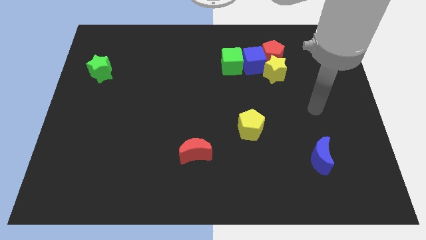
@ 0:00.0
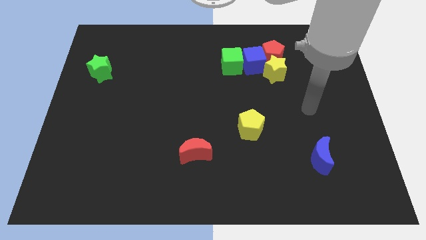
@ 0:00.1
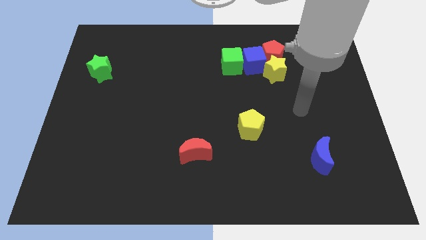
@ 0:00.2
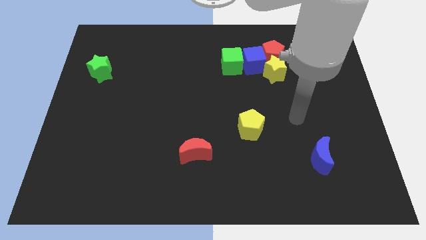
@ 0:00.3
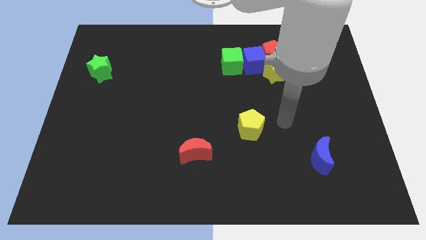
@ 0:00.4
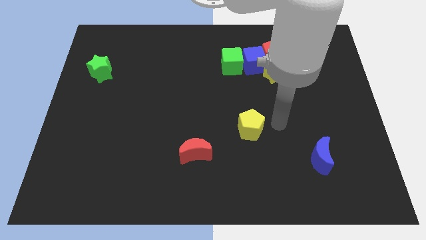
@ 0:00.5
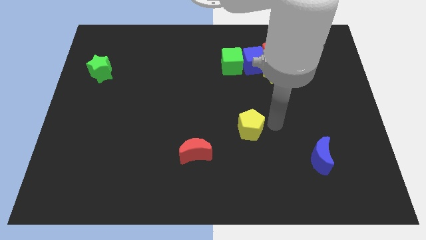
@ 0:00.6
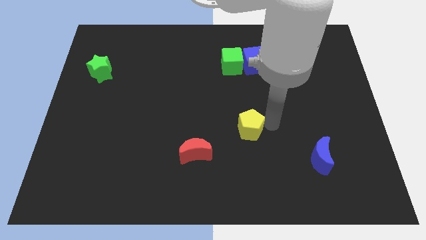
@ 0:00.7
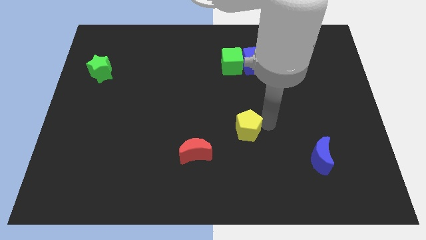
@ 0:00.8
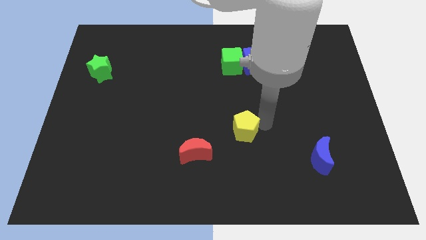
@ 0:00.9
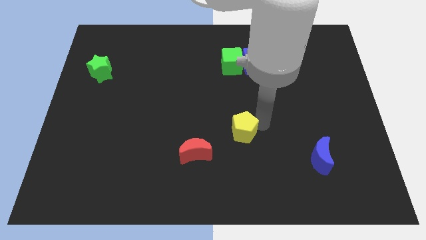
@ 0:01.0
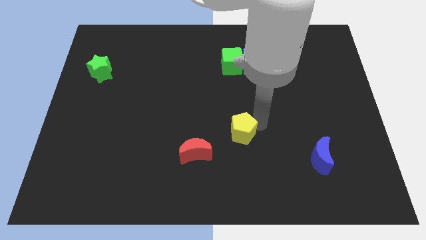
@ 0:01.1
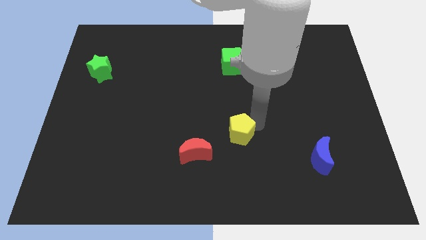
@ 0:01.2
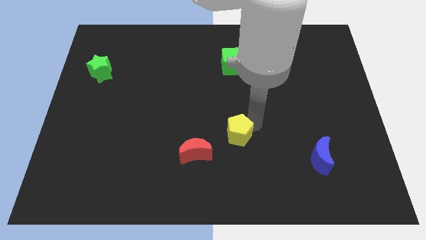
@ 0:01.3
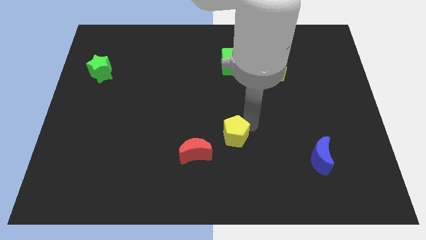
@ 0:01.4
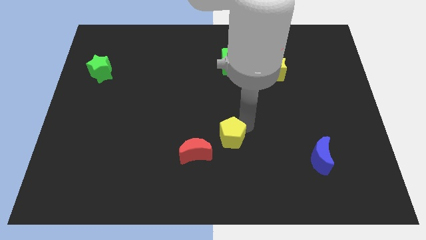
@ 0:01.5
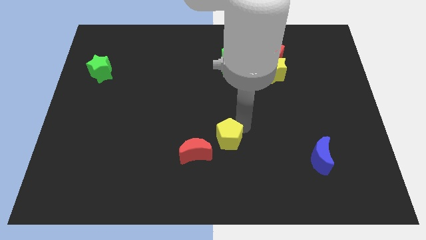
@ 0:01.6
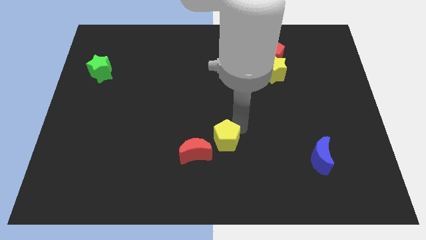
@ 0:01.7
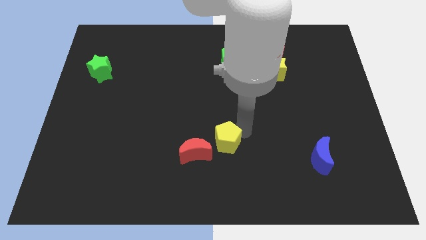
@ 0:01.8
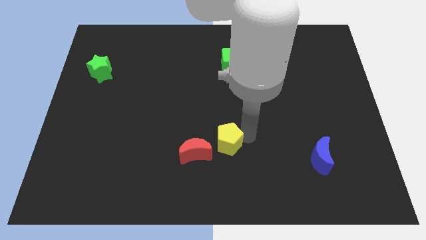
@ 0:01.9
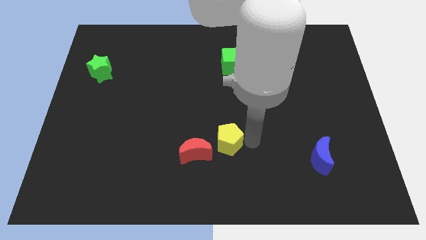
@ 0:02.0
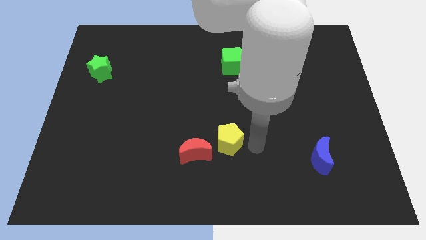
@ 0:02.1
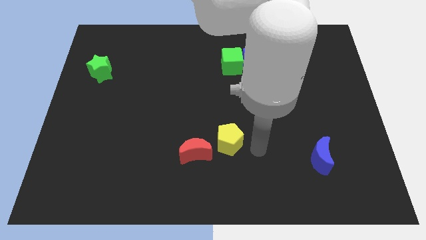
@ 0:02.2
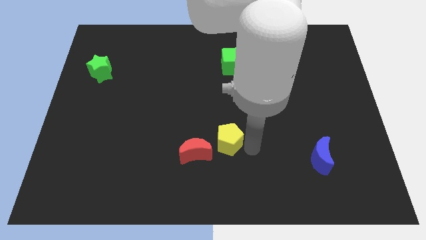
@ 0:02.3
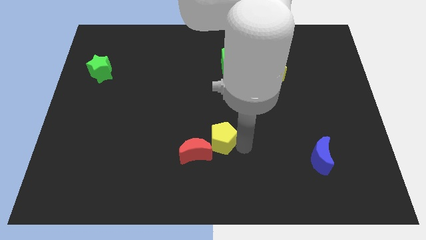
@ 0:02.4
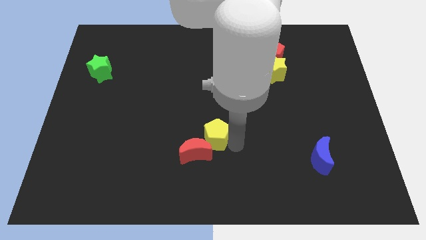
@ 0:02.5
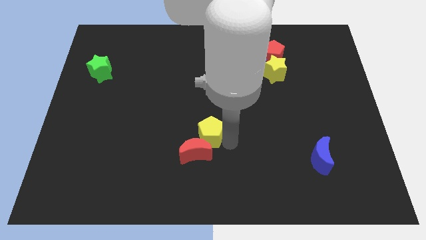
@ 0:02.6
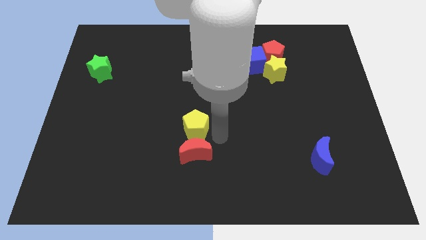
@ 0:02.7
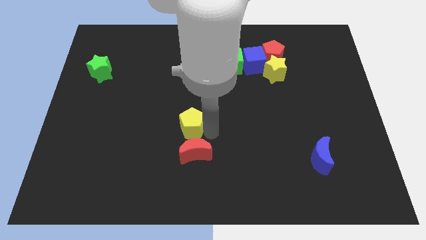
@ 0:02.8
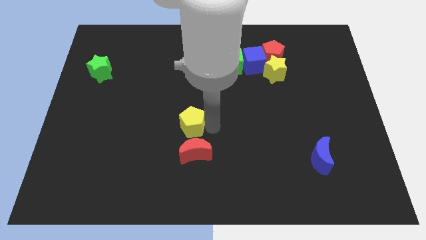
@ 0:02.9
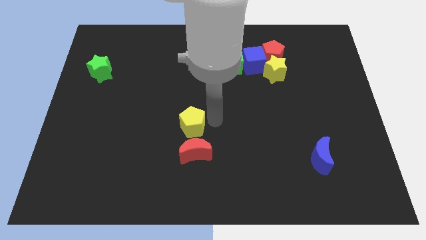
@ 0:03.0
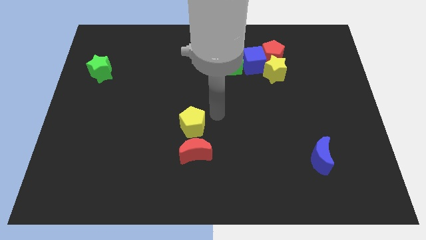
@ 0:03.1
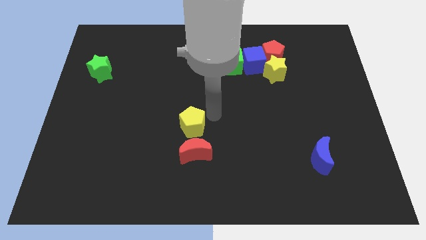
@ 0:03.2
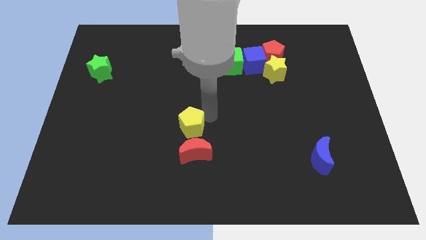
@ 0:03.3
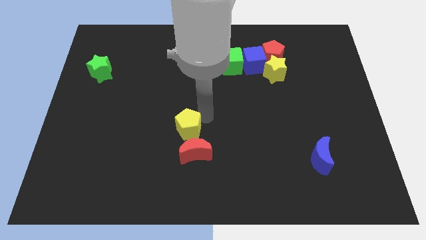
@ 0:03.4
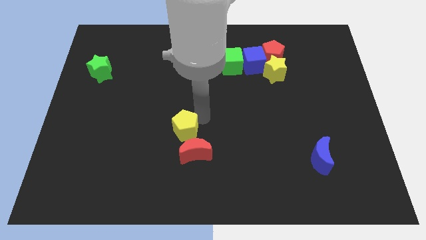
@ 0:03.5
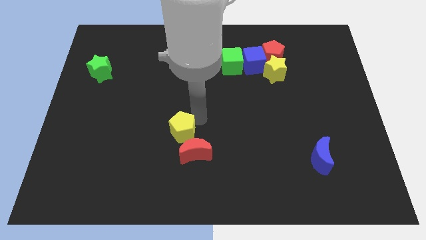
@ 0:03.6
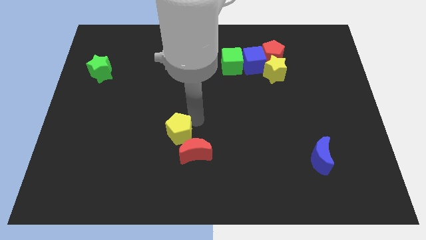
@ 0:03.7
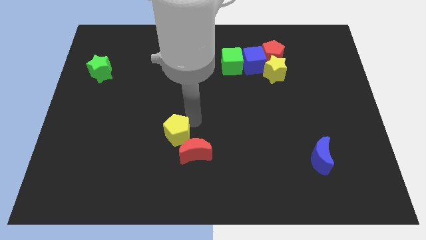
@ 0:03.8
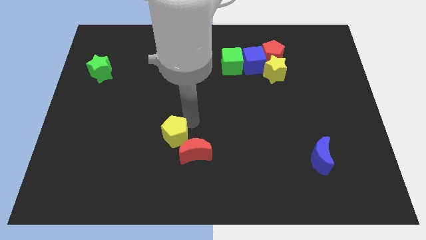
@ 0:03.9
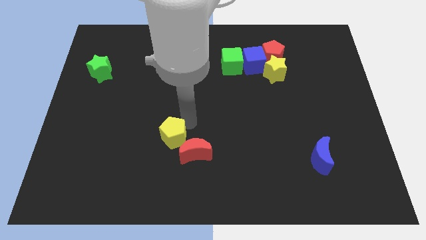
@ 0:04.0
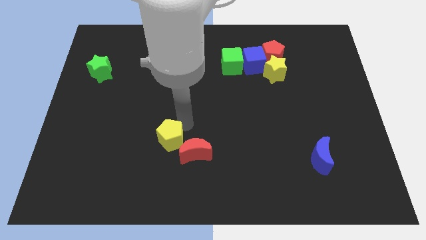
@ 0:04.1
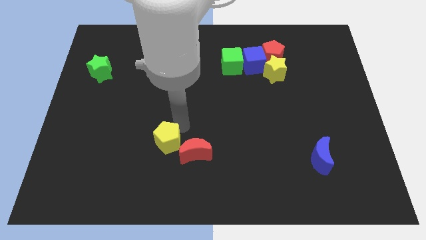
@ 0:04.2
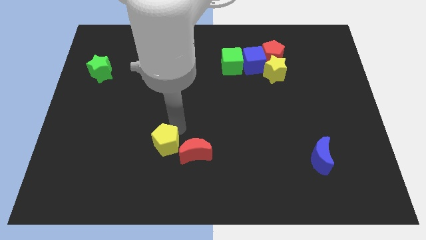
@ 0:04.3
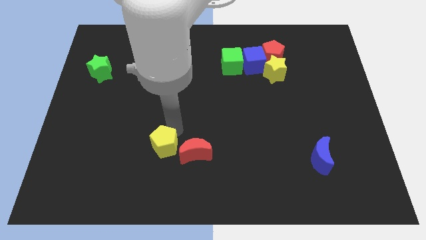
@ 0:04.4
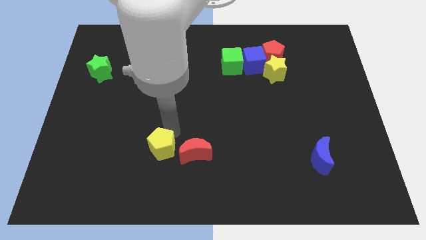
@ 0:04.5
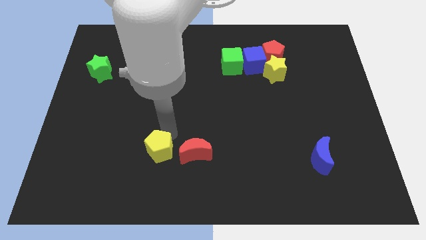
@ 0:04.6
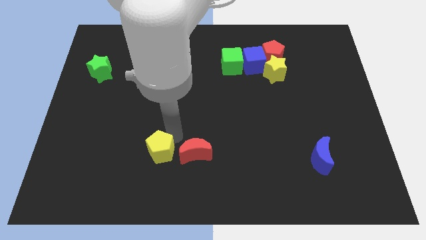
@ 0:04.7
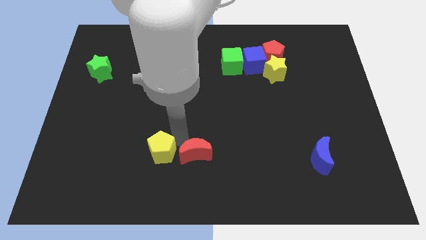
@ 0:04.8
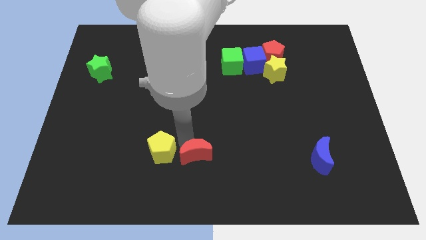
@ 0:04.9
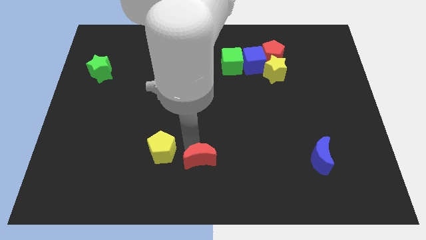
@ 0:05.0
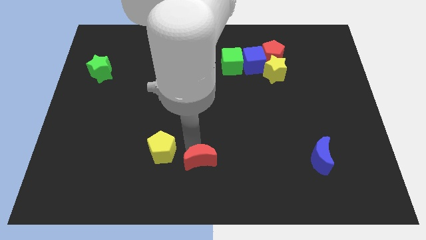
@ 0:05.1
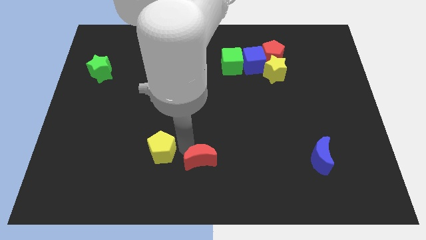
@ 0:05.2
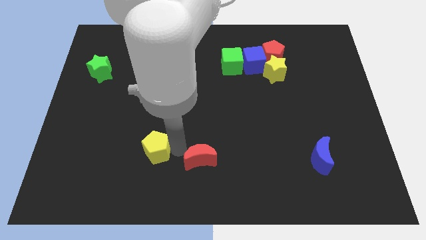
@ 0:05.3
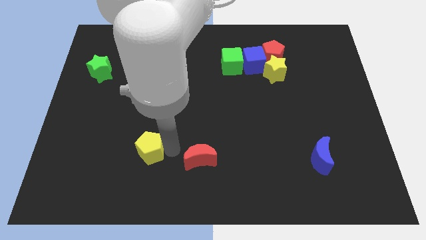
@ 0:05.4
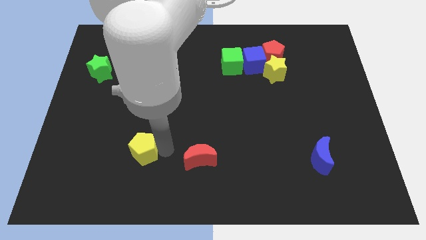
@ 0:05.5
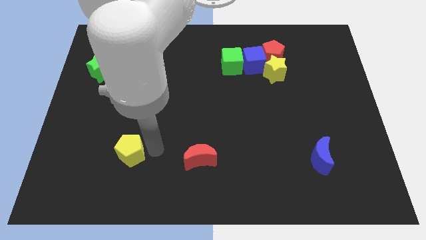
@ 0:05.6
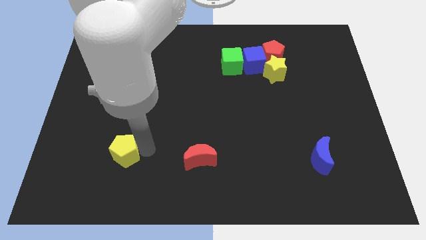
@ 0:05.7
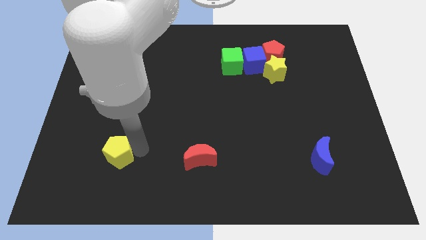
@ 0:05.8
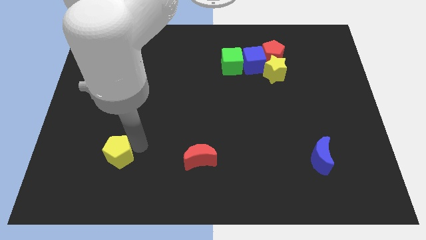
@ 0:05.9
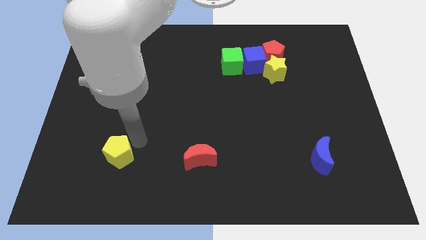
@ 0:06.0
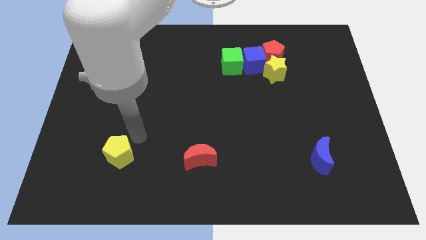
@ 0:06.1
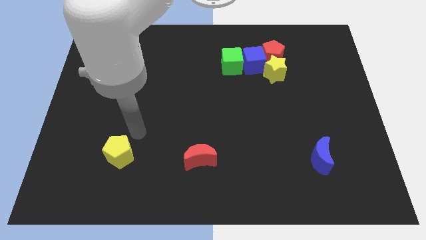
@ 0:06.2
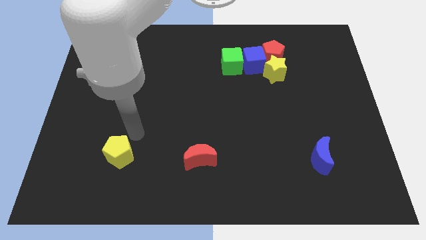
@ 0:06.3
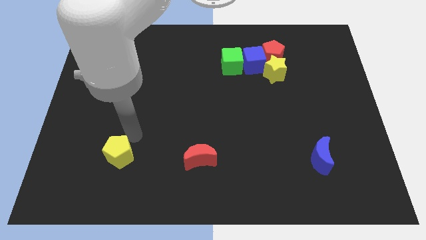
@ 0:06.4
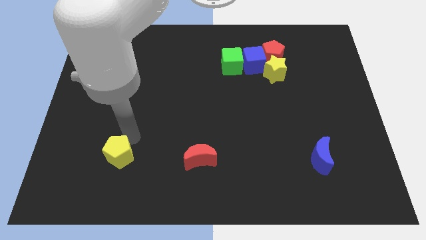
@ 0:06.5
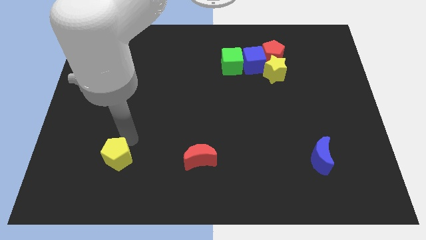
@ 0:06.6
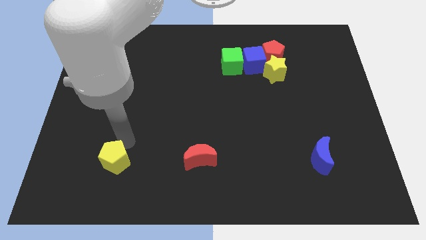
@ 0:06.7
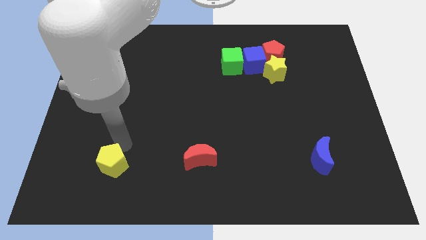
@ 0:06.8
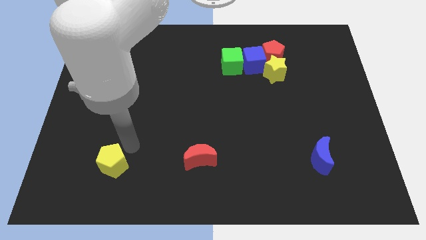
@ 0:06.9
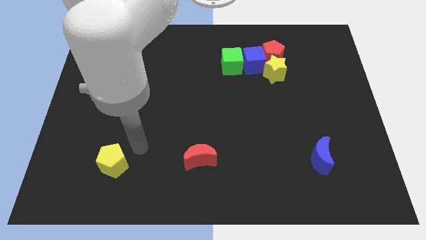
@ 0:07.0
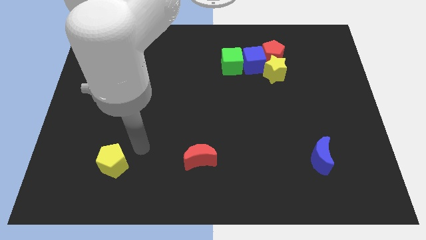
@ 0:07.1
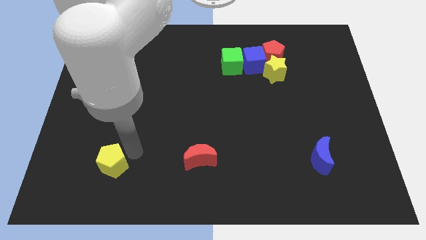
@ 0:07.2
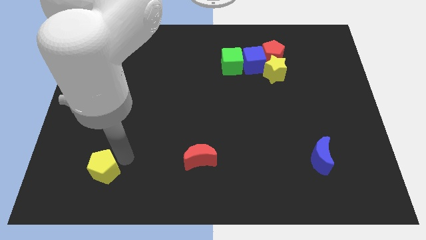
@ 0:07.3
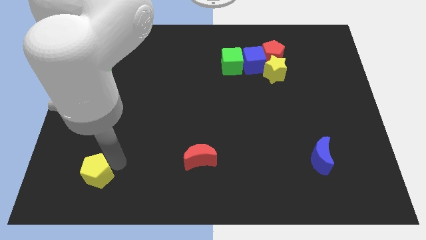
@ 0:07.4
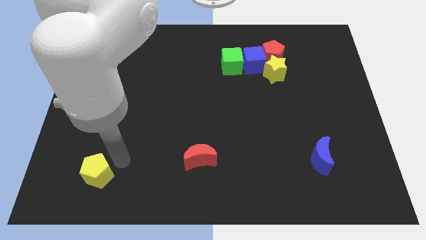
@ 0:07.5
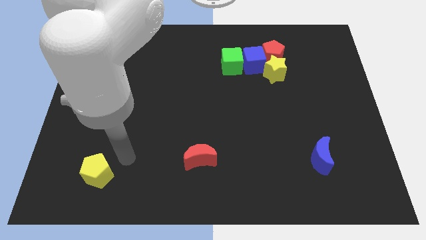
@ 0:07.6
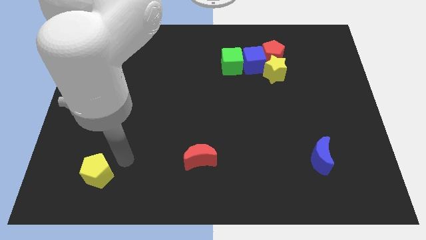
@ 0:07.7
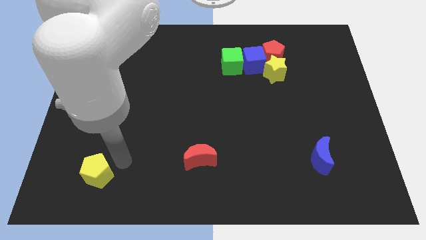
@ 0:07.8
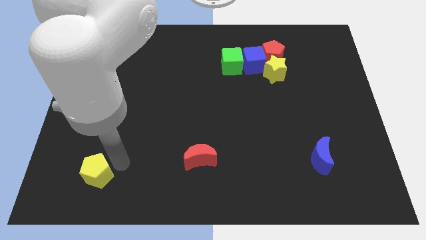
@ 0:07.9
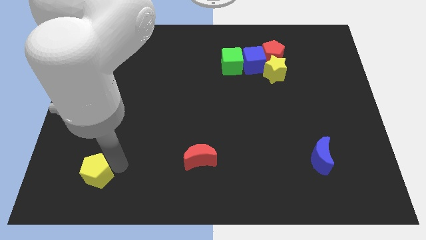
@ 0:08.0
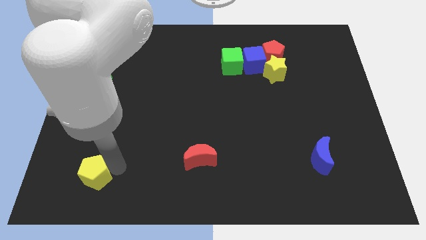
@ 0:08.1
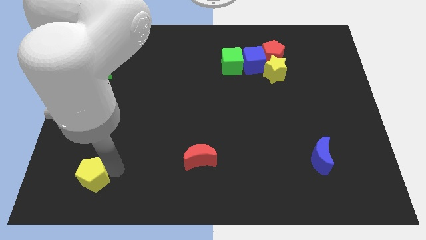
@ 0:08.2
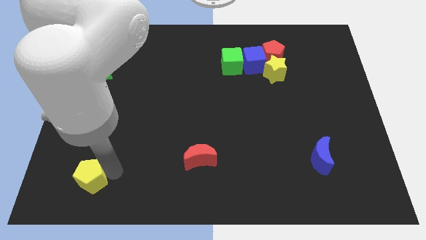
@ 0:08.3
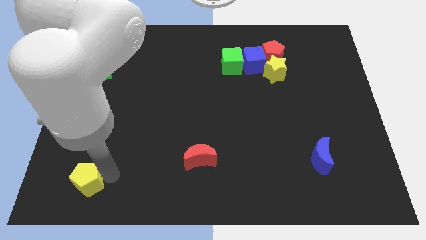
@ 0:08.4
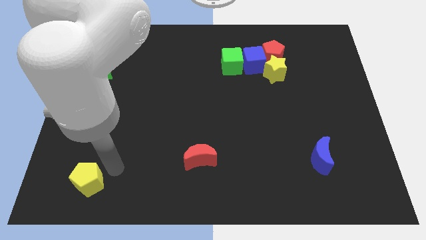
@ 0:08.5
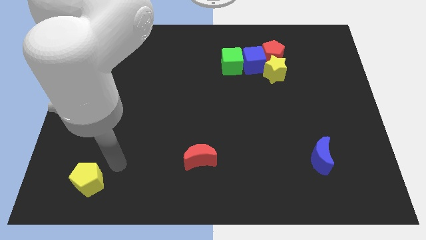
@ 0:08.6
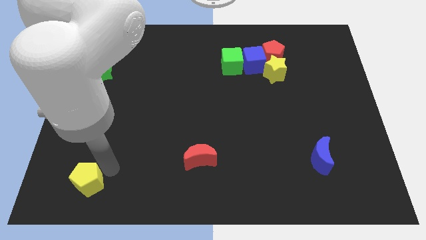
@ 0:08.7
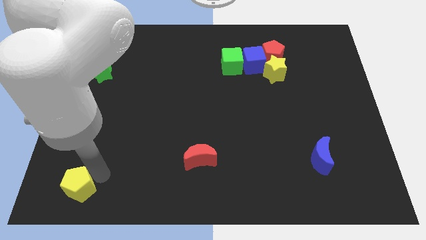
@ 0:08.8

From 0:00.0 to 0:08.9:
slide the yellow pentagon to the lower left corner
